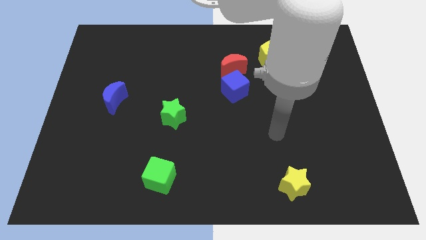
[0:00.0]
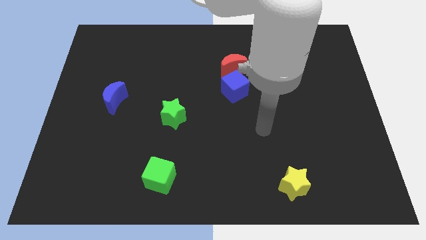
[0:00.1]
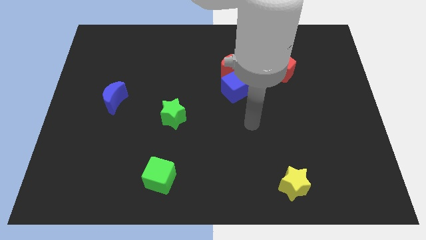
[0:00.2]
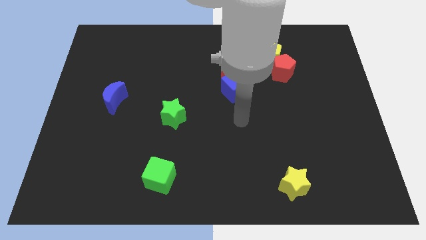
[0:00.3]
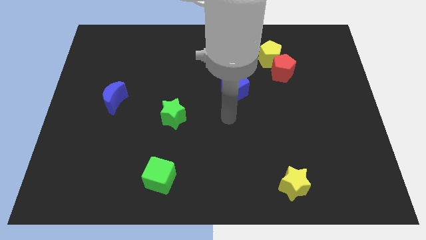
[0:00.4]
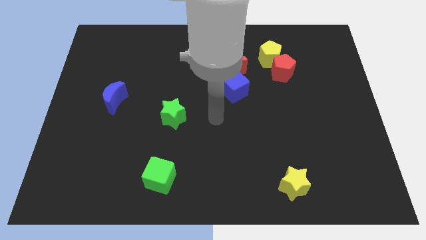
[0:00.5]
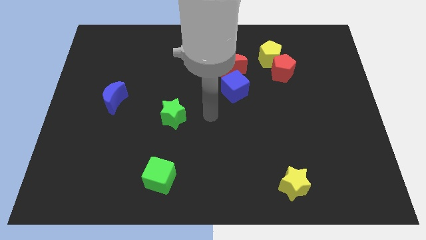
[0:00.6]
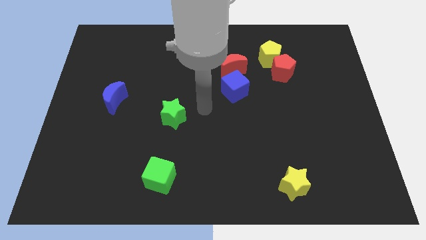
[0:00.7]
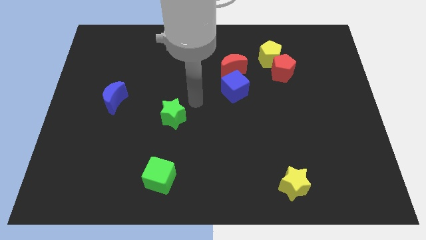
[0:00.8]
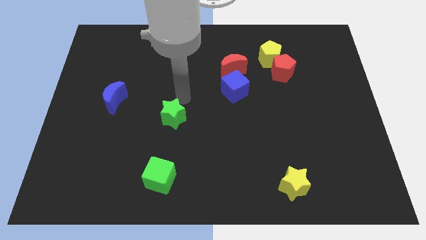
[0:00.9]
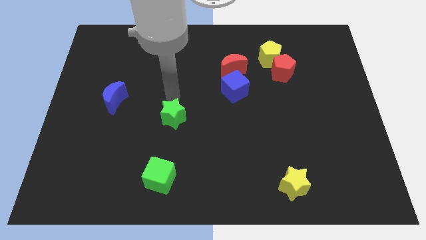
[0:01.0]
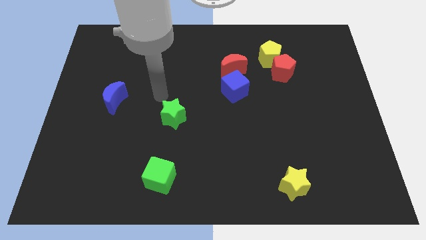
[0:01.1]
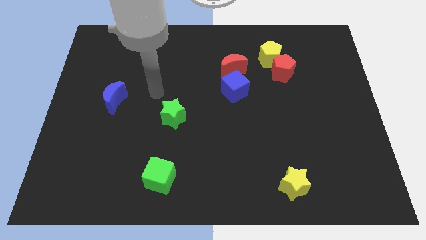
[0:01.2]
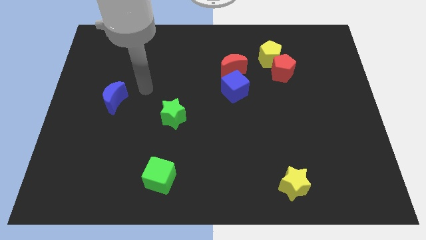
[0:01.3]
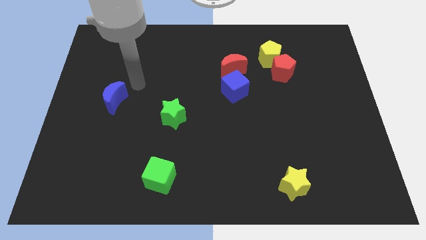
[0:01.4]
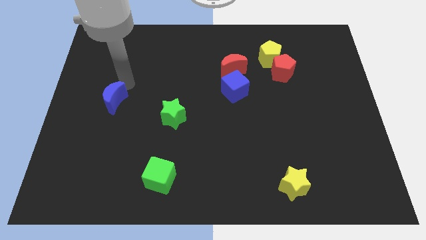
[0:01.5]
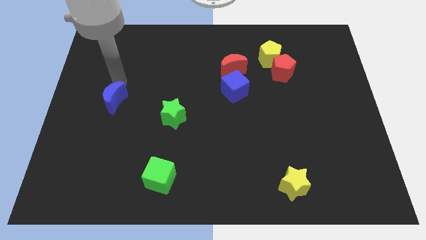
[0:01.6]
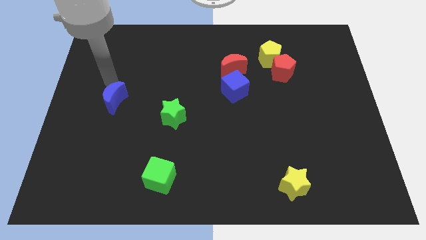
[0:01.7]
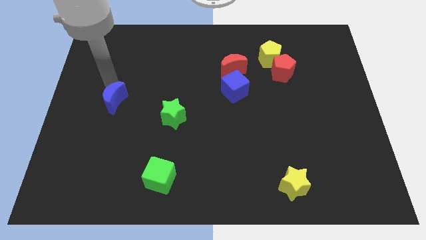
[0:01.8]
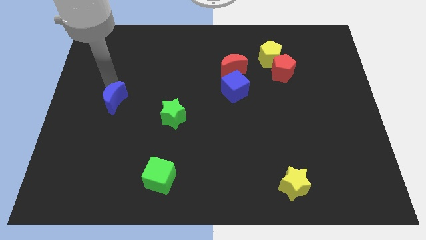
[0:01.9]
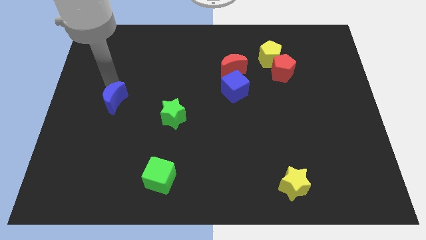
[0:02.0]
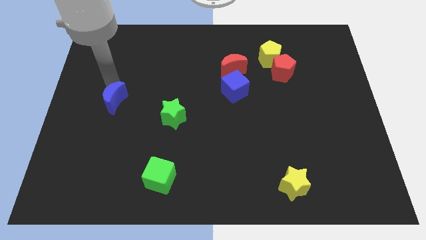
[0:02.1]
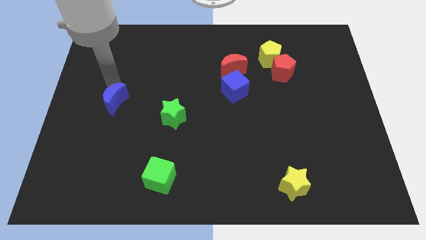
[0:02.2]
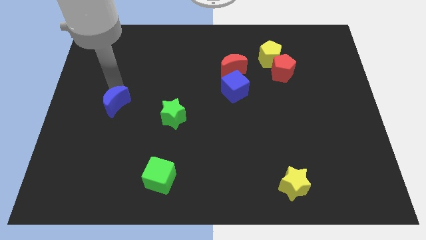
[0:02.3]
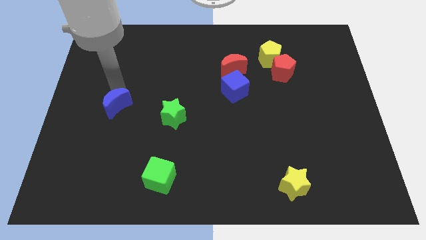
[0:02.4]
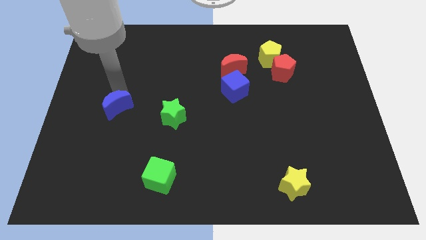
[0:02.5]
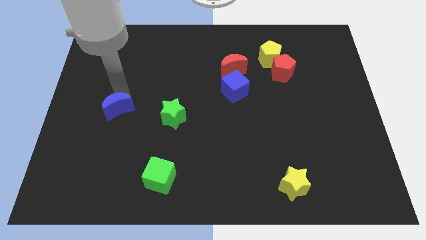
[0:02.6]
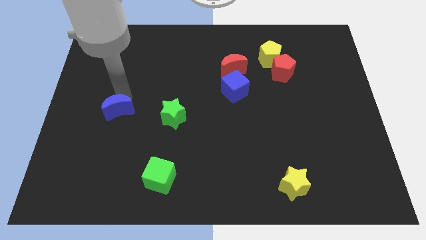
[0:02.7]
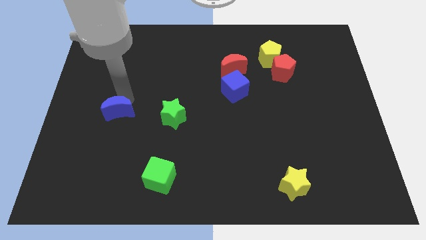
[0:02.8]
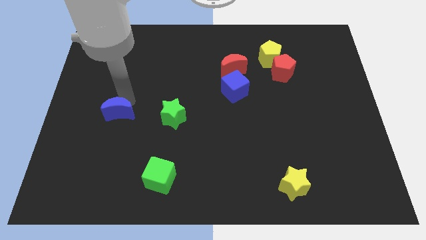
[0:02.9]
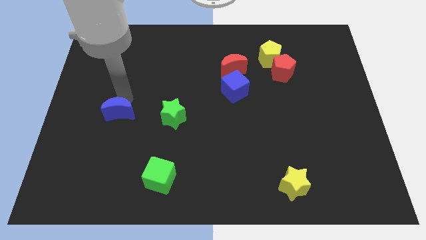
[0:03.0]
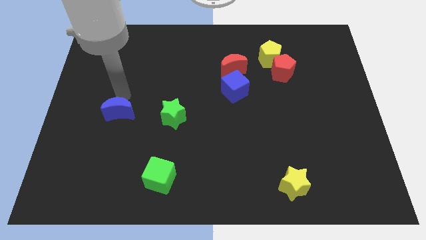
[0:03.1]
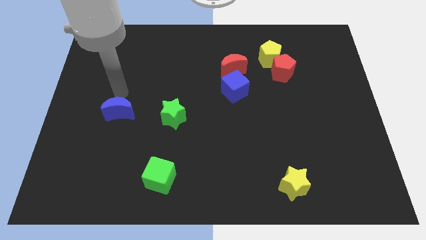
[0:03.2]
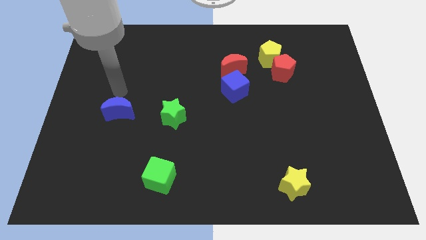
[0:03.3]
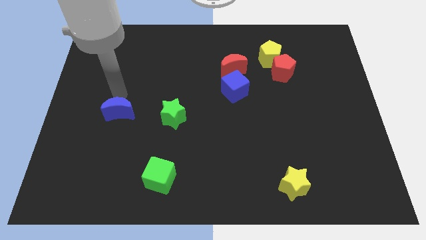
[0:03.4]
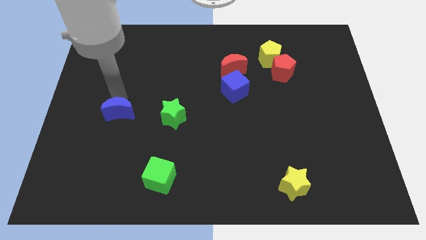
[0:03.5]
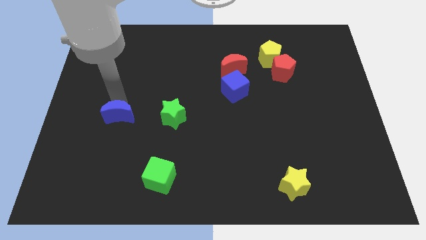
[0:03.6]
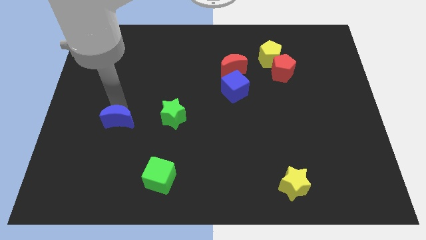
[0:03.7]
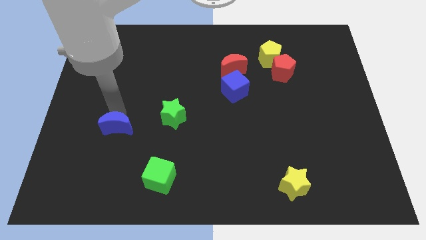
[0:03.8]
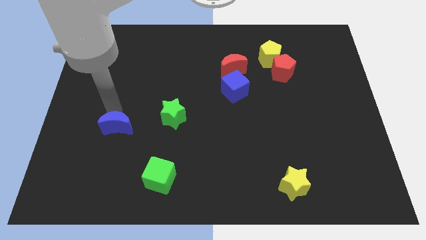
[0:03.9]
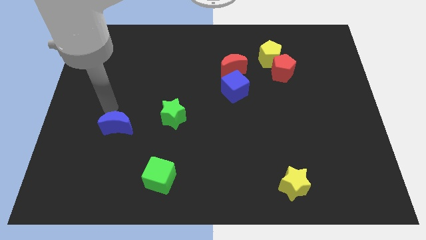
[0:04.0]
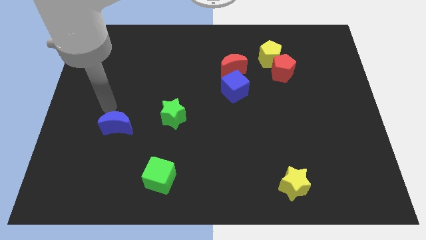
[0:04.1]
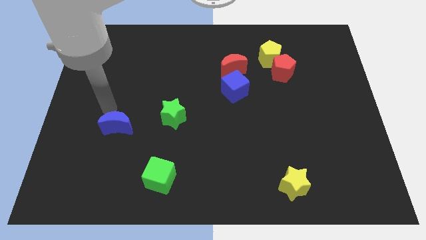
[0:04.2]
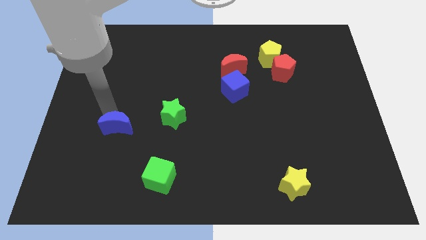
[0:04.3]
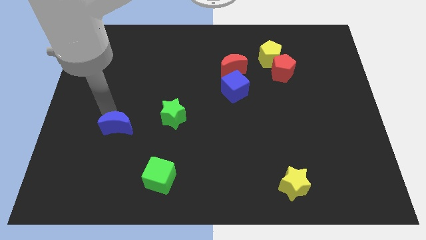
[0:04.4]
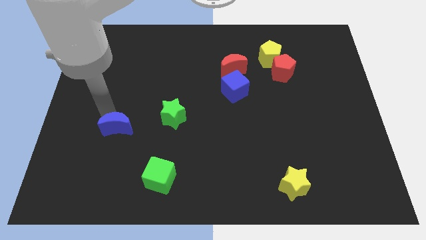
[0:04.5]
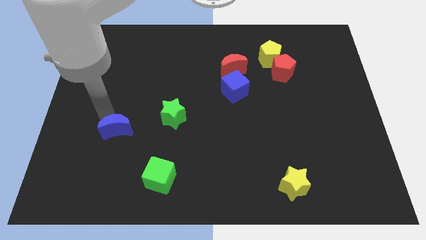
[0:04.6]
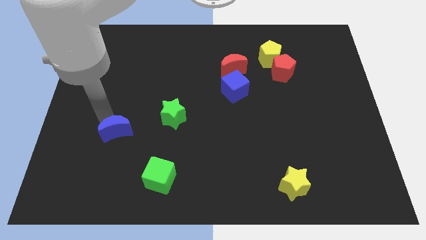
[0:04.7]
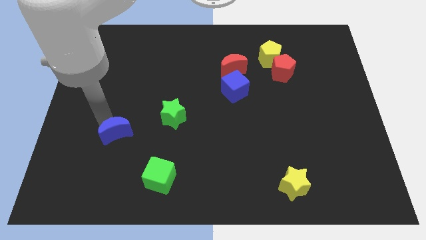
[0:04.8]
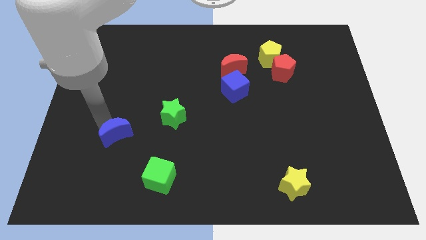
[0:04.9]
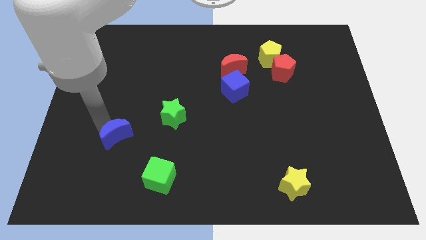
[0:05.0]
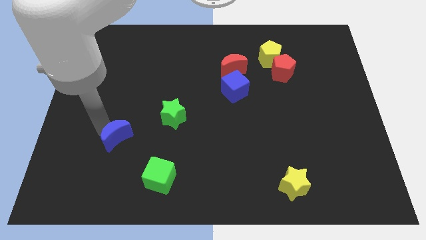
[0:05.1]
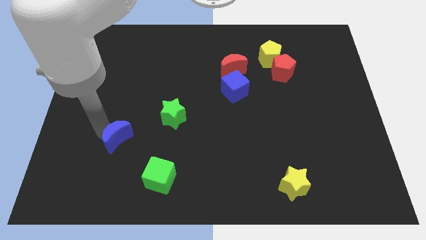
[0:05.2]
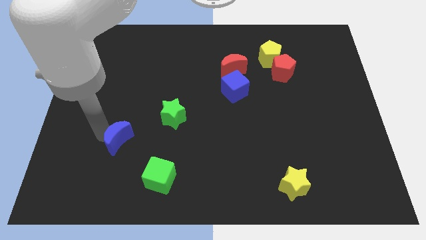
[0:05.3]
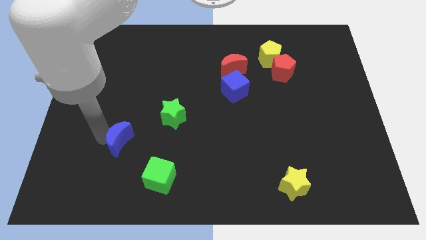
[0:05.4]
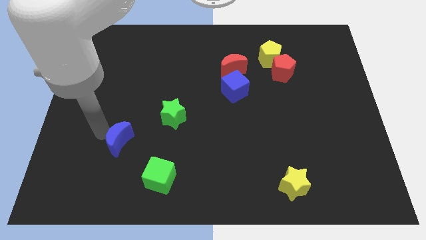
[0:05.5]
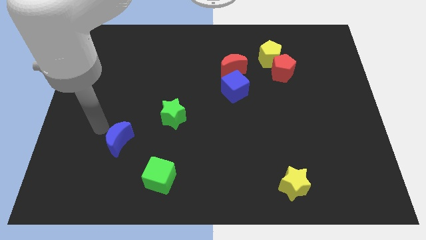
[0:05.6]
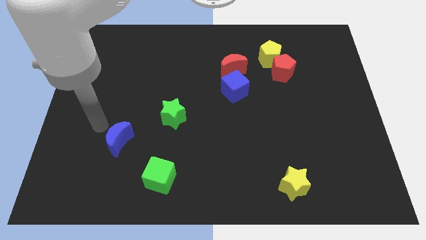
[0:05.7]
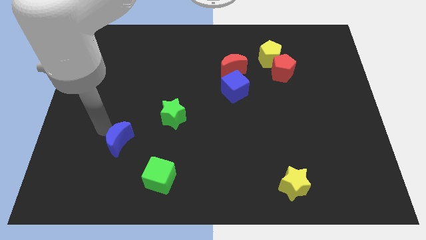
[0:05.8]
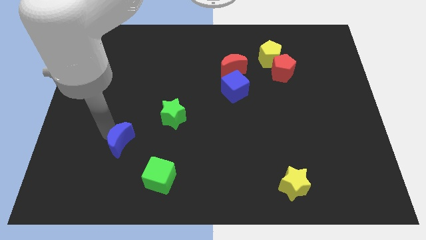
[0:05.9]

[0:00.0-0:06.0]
push the blue moon to the top left of the green cube

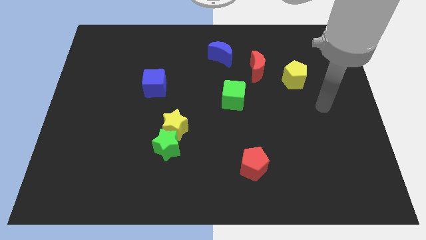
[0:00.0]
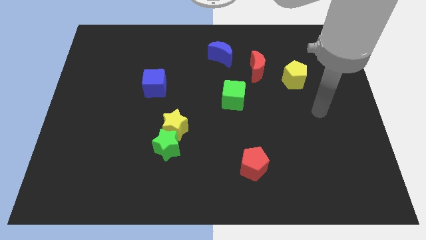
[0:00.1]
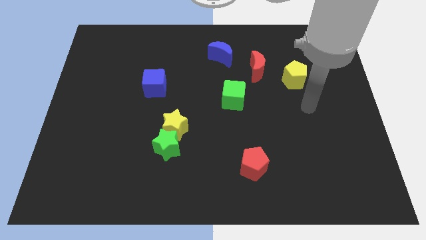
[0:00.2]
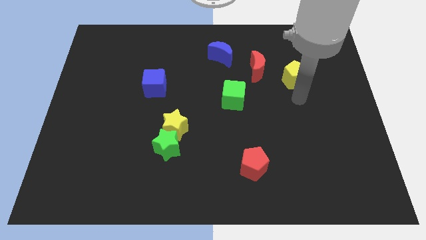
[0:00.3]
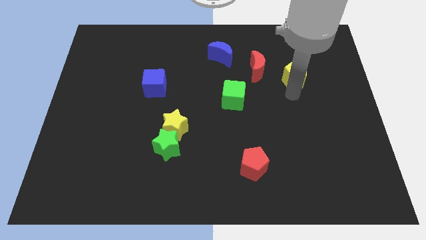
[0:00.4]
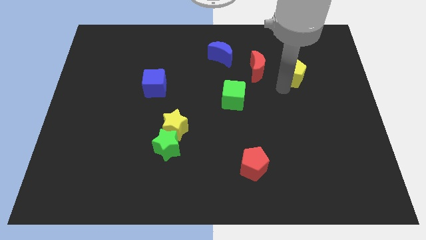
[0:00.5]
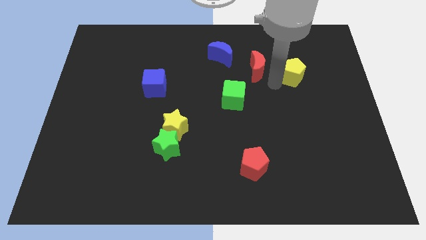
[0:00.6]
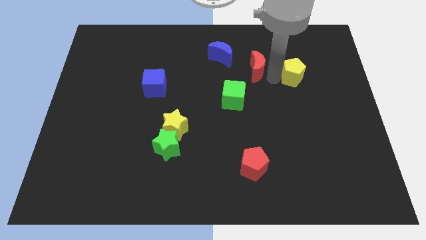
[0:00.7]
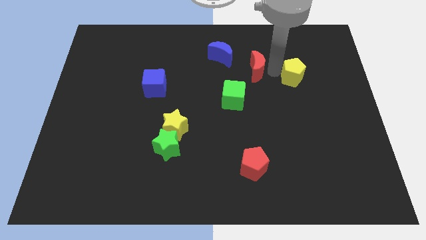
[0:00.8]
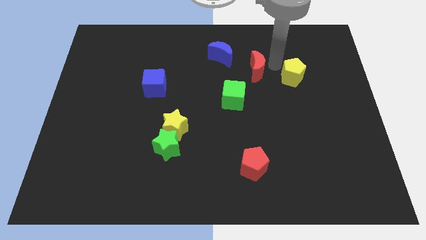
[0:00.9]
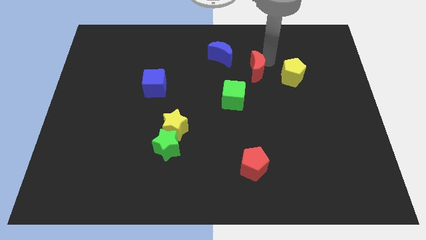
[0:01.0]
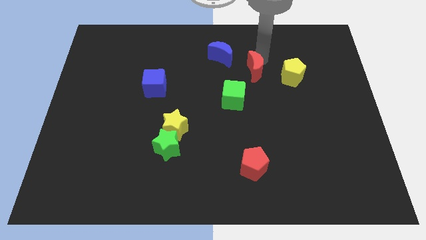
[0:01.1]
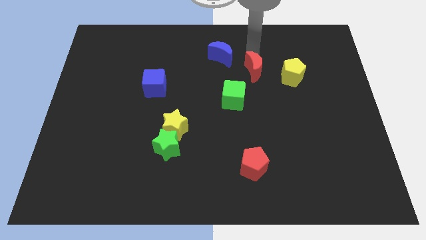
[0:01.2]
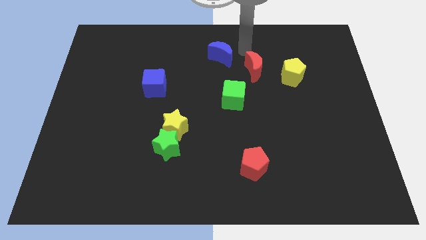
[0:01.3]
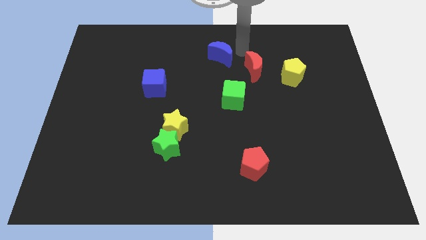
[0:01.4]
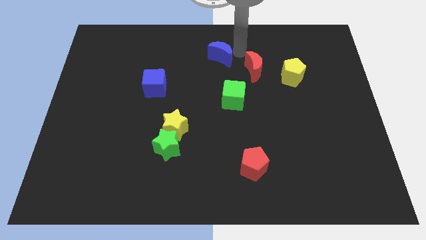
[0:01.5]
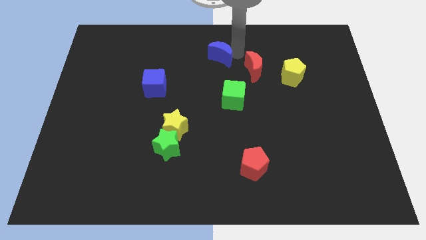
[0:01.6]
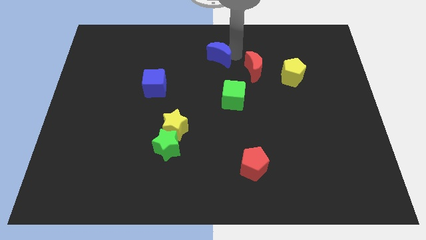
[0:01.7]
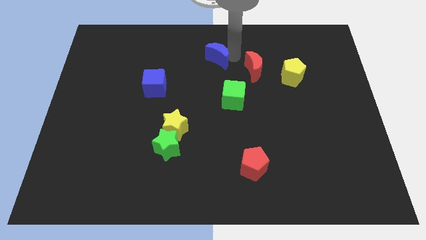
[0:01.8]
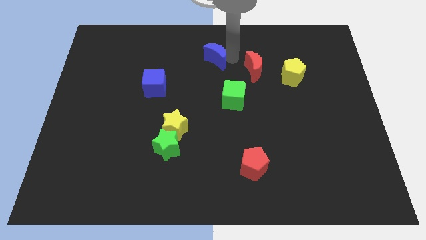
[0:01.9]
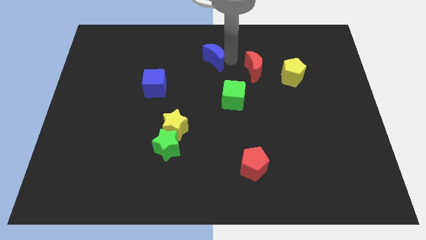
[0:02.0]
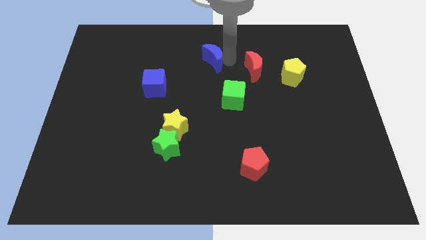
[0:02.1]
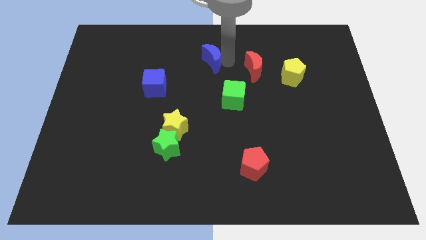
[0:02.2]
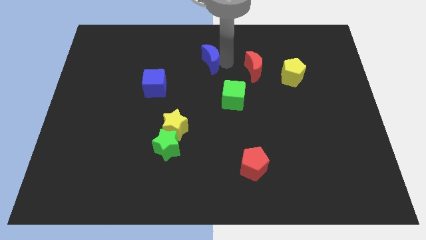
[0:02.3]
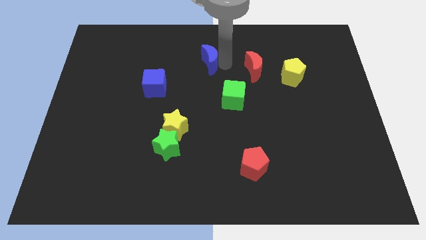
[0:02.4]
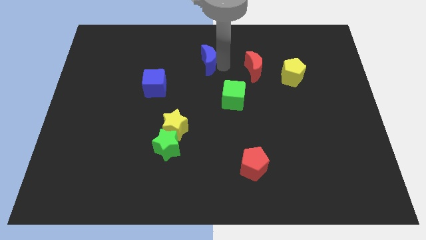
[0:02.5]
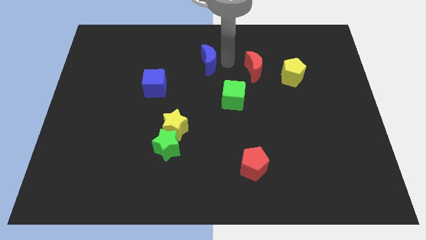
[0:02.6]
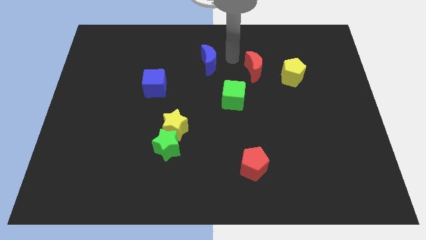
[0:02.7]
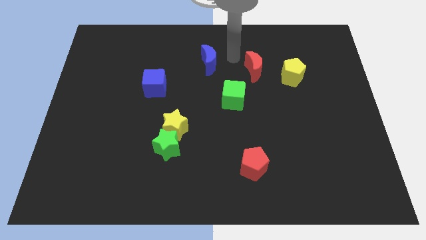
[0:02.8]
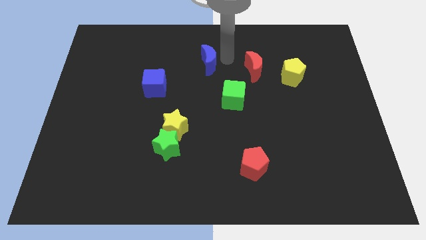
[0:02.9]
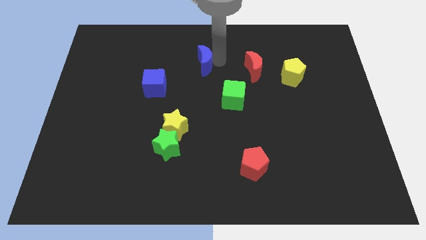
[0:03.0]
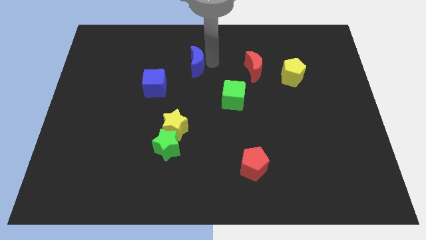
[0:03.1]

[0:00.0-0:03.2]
push the blue moon to the top right side of the blue cube
